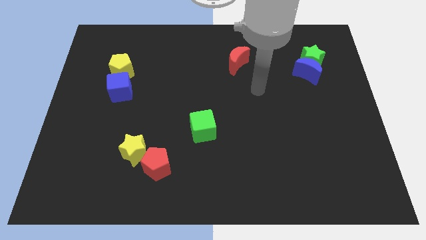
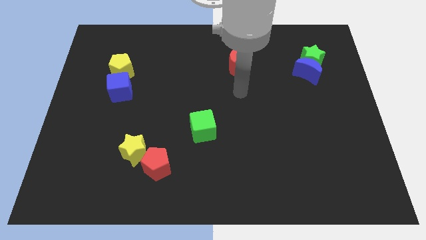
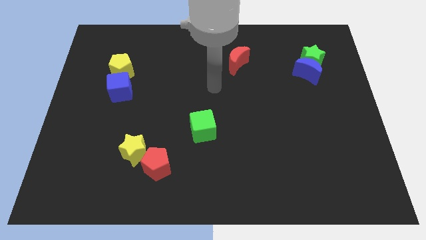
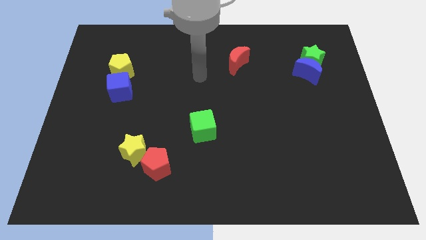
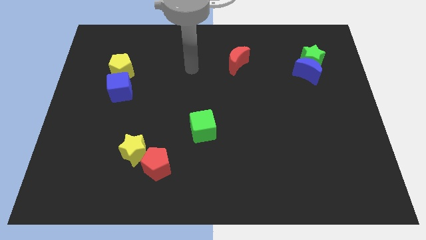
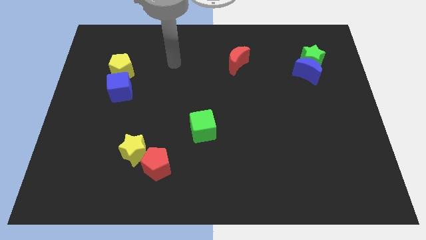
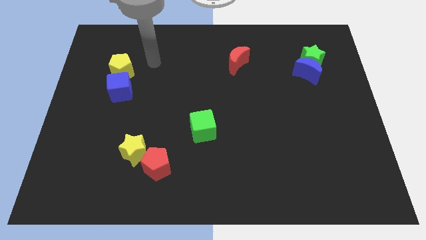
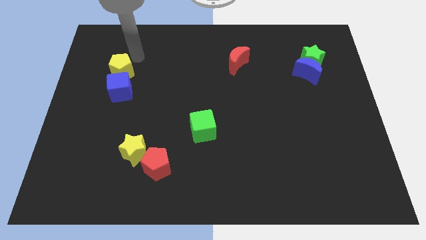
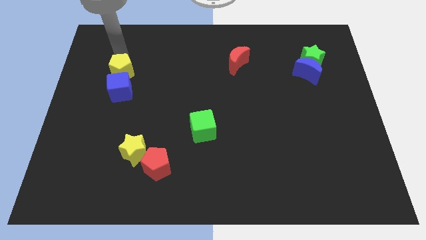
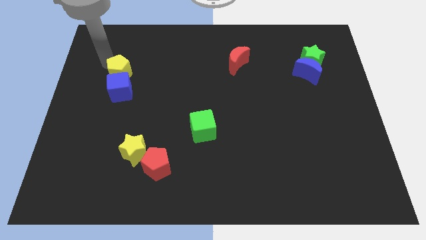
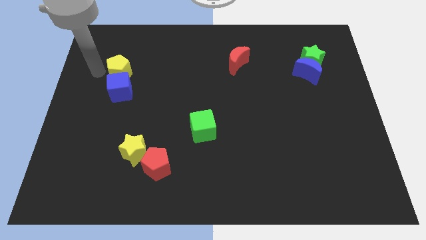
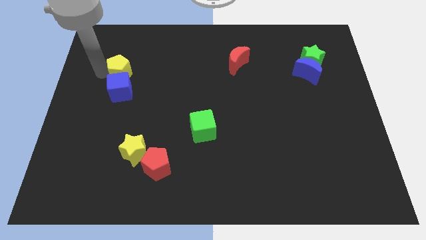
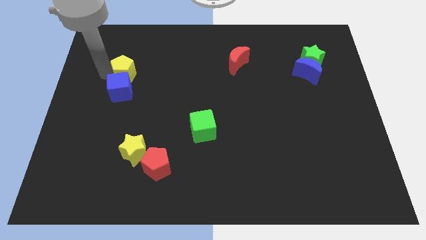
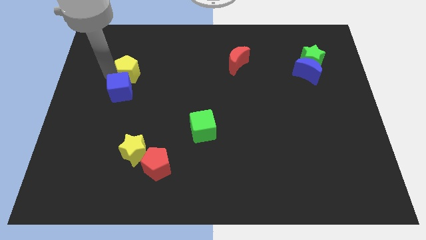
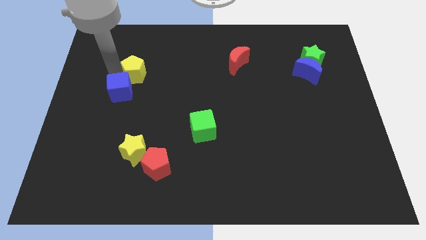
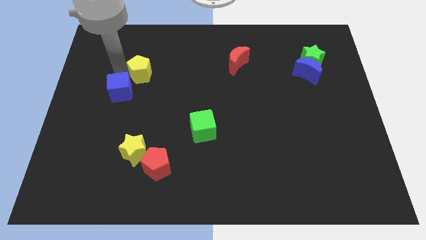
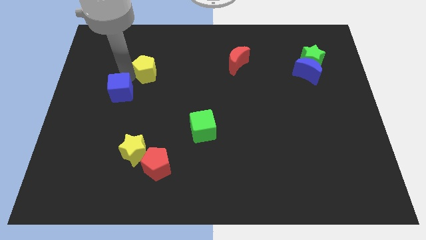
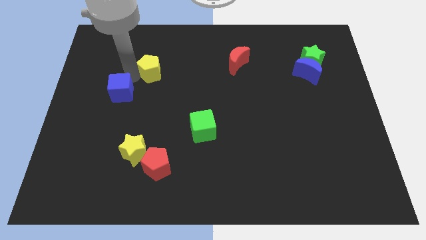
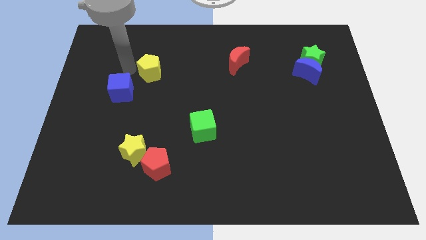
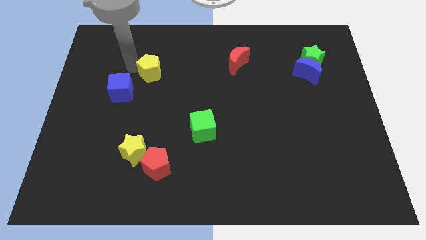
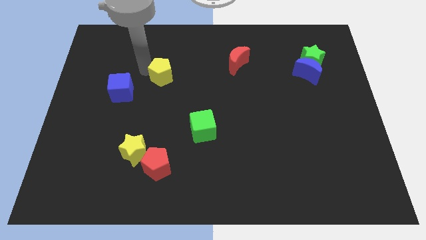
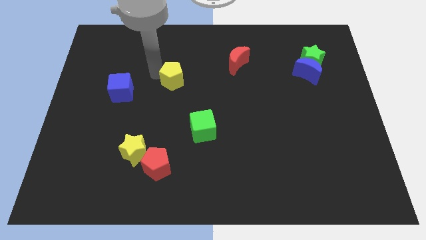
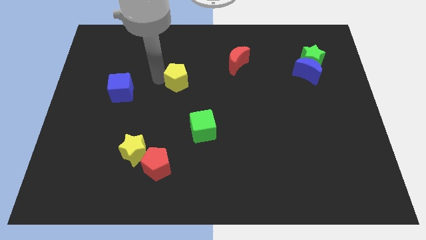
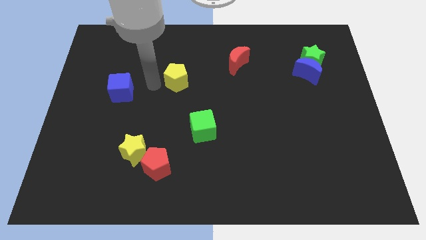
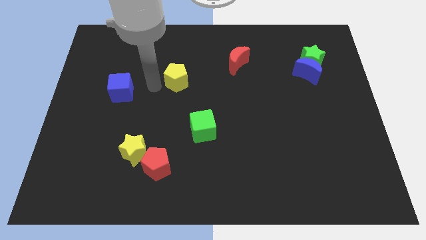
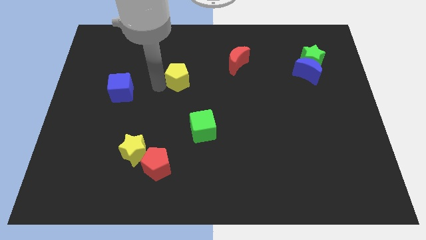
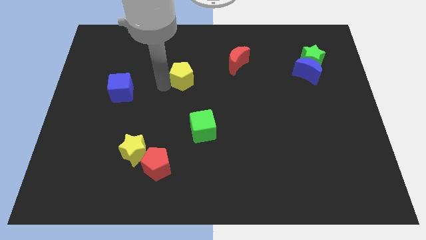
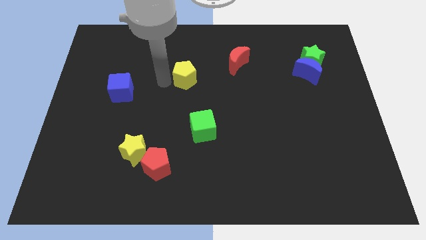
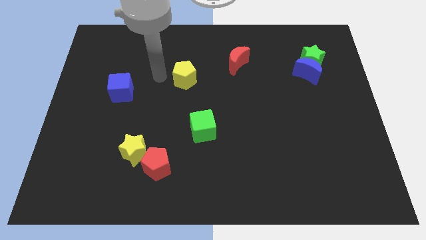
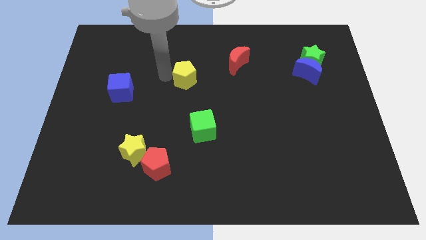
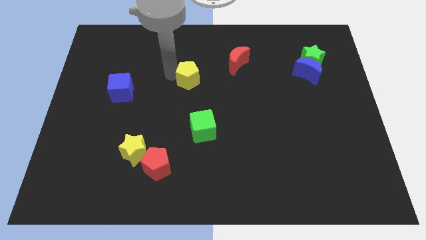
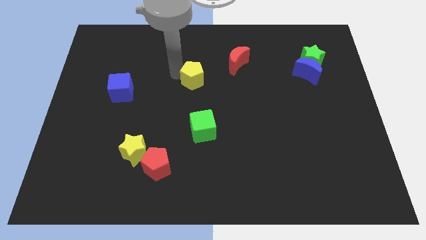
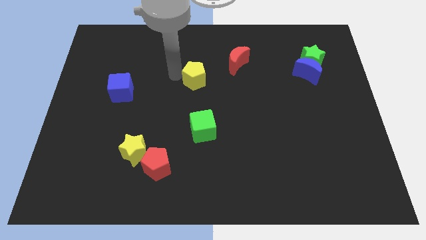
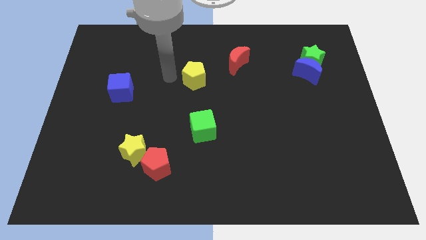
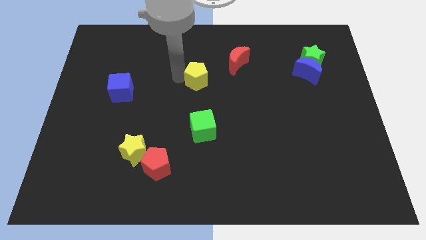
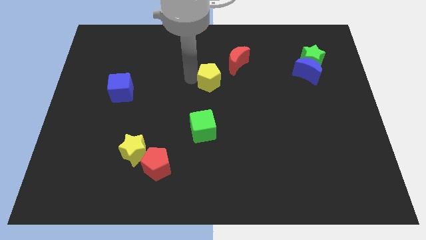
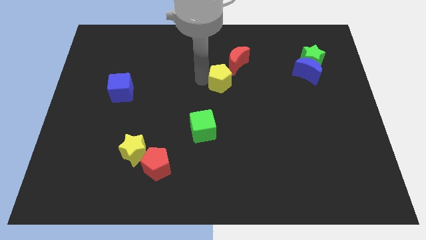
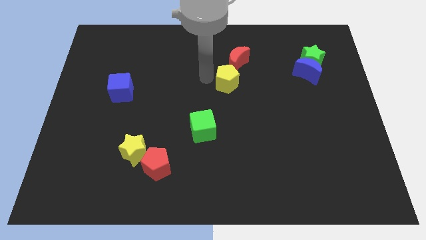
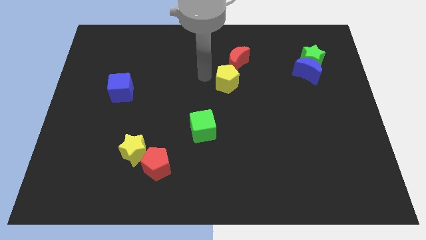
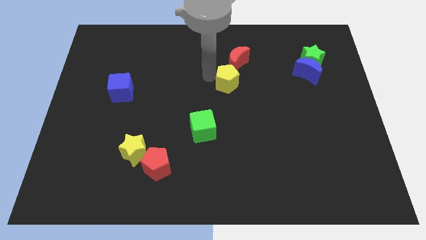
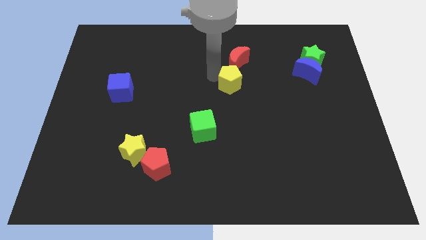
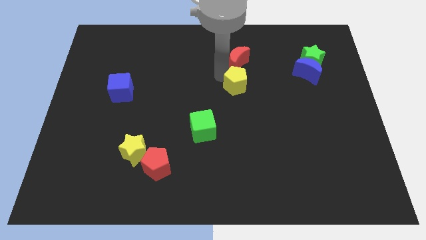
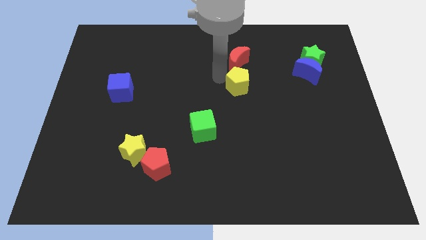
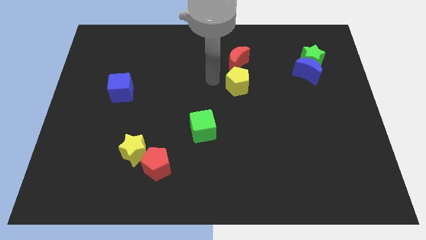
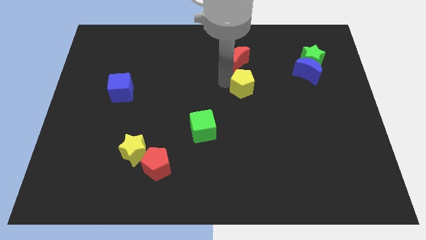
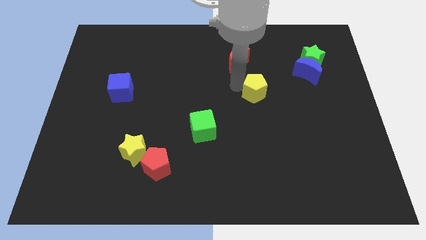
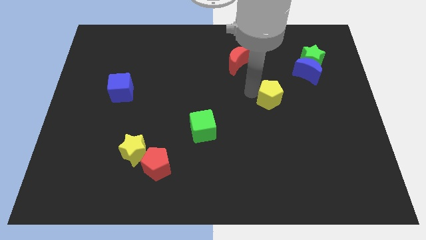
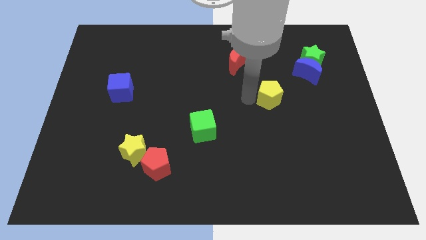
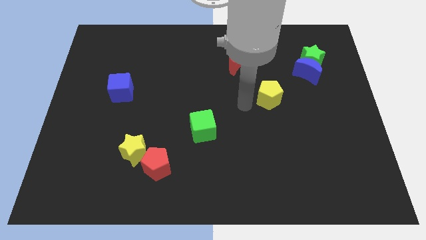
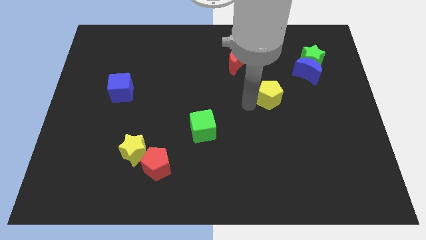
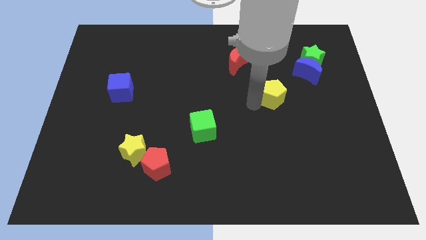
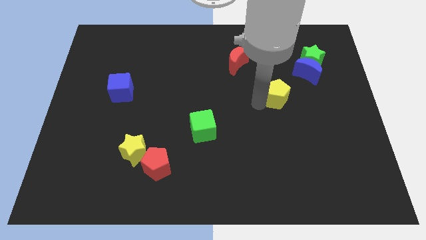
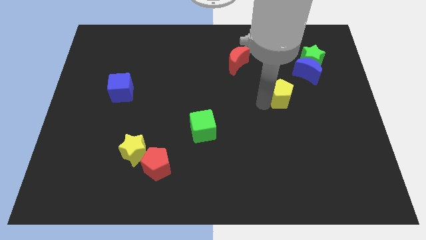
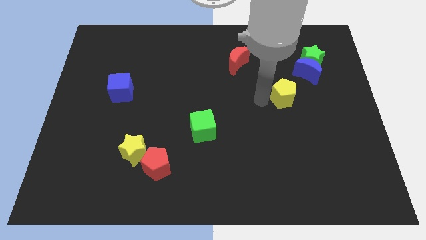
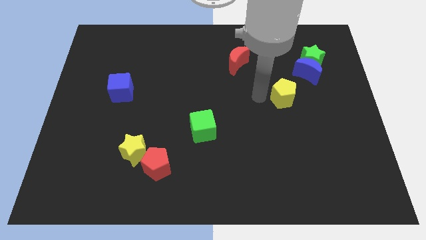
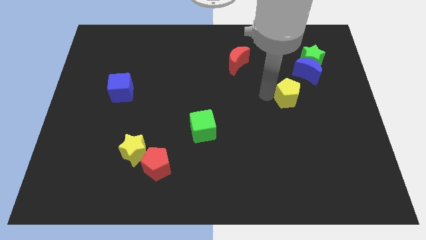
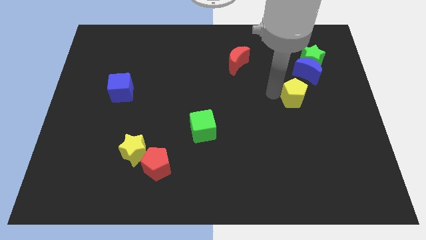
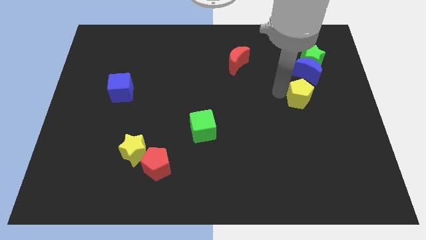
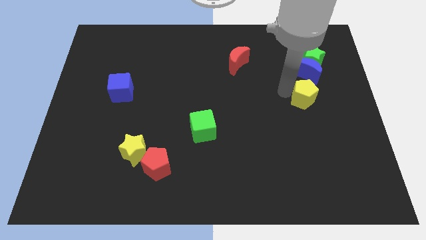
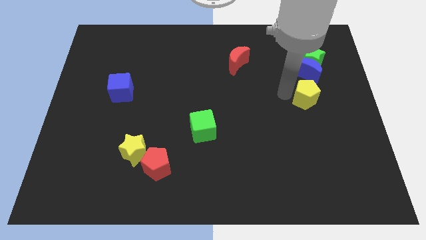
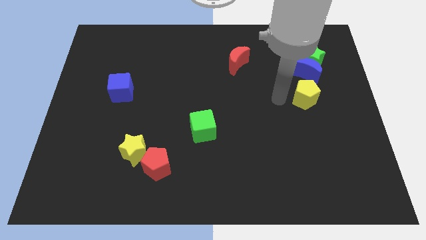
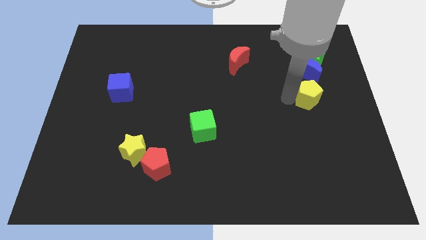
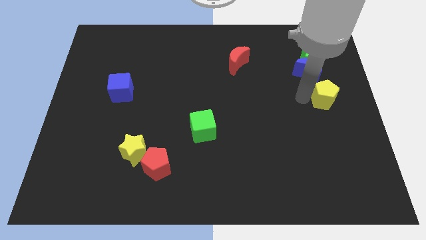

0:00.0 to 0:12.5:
put the yellow pentagon to the center right

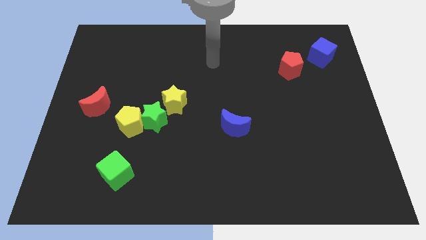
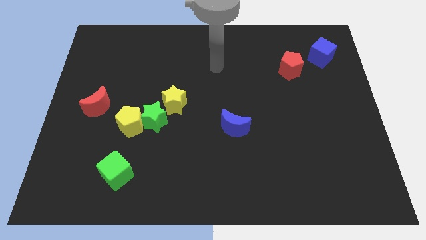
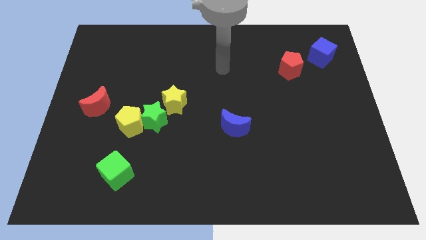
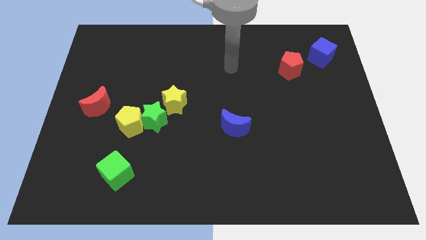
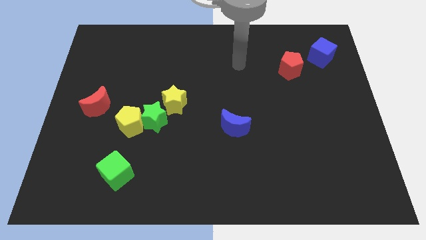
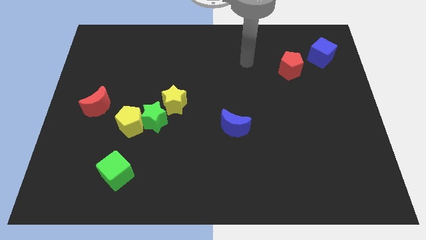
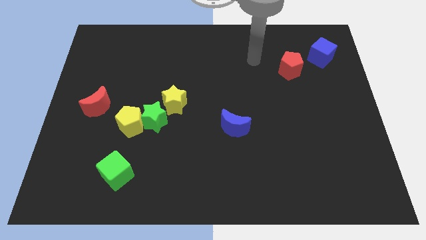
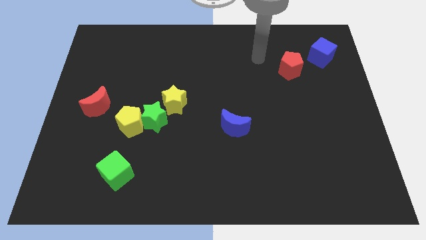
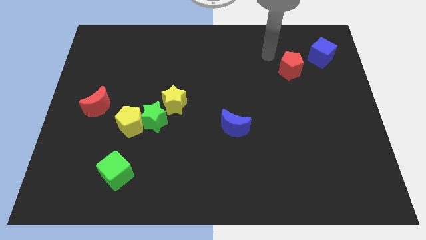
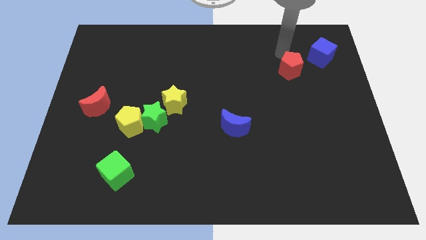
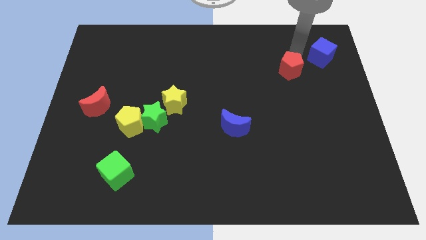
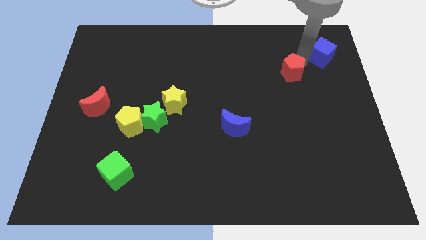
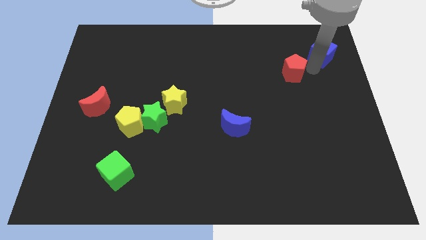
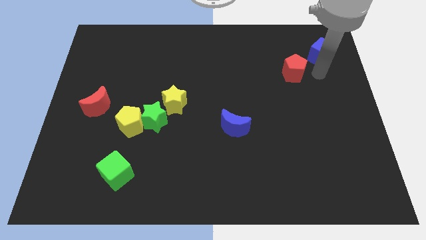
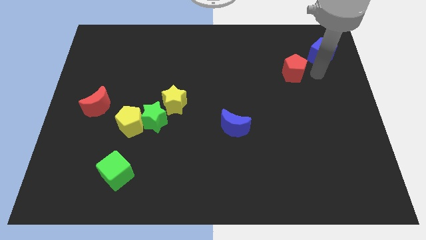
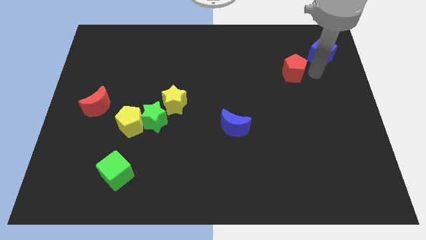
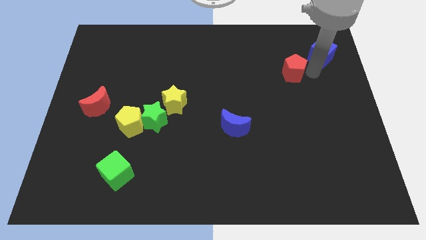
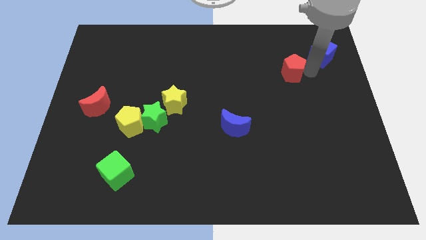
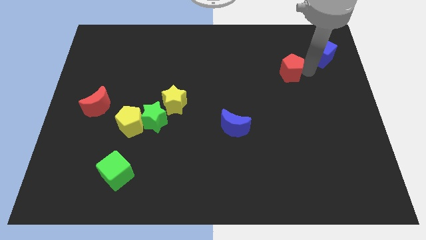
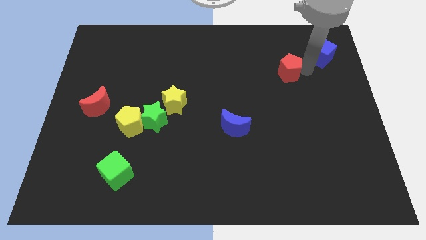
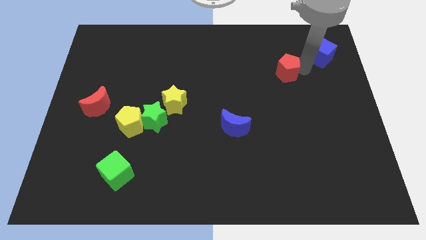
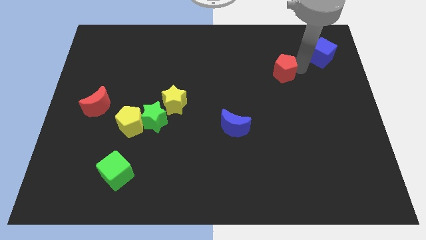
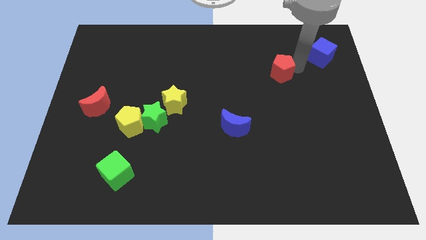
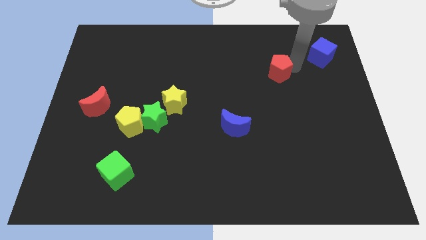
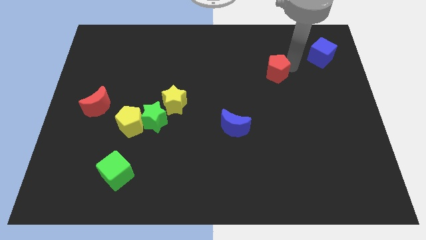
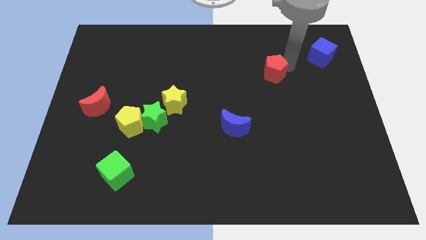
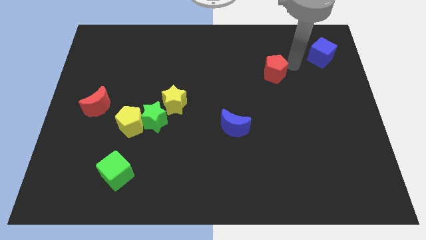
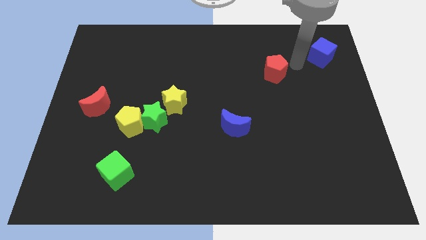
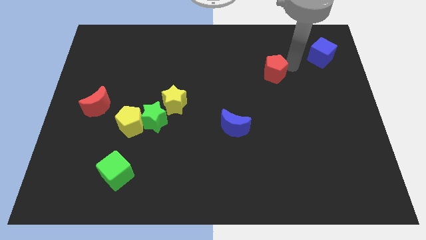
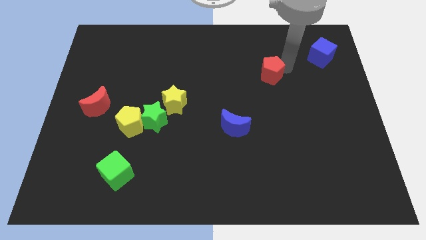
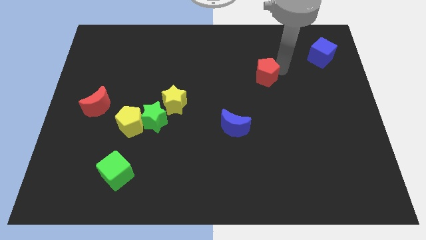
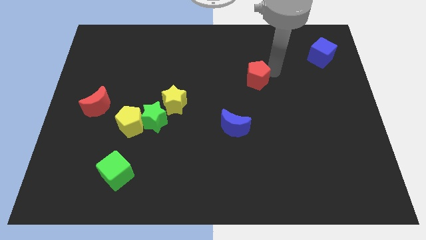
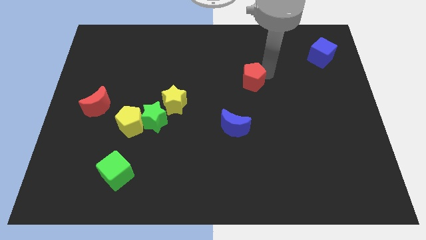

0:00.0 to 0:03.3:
move the red pentagon to the center of the board
